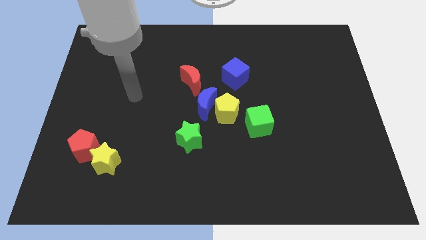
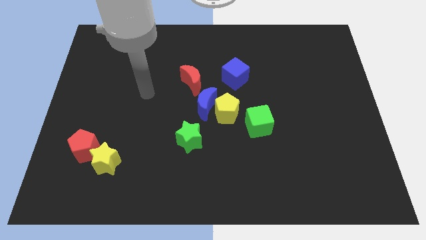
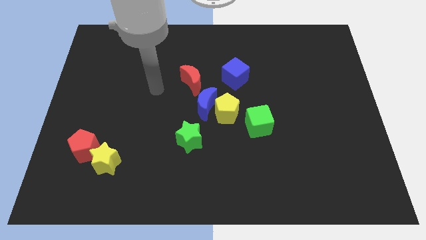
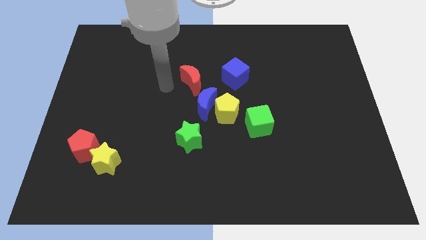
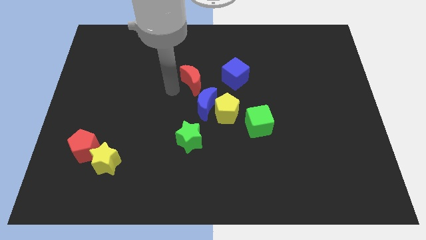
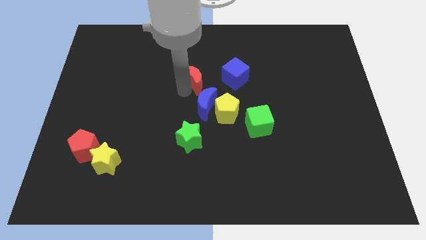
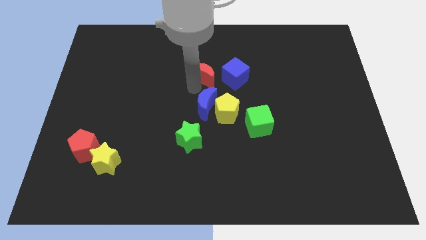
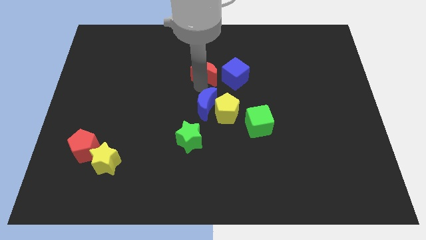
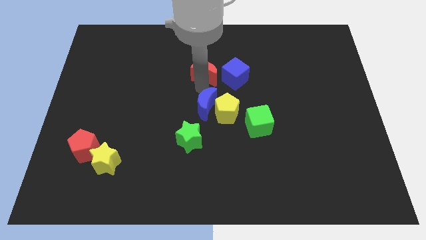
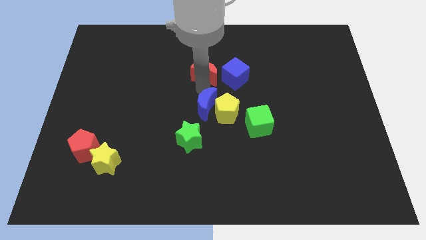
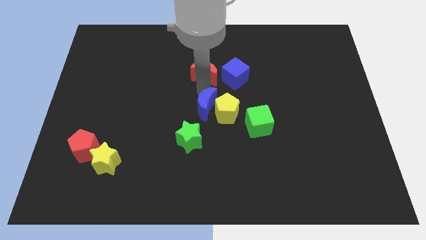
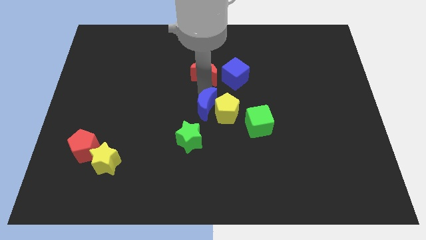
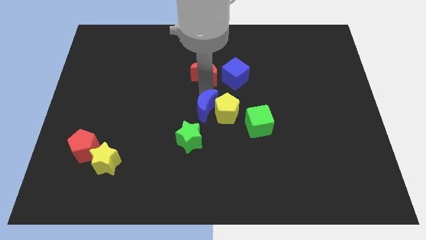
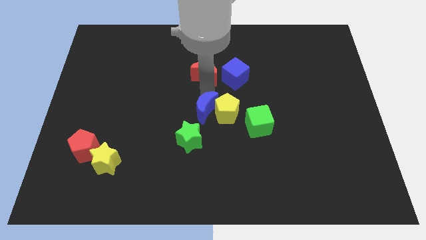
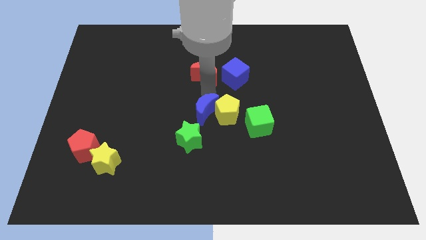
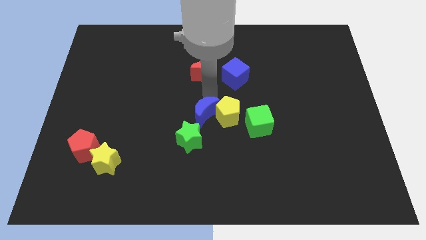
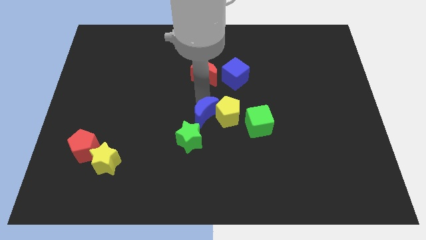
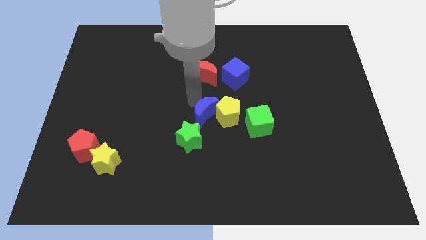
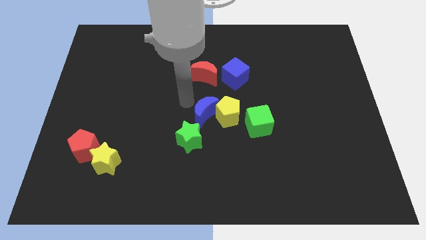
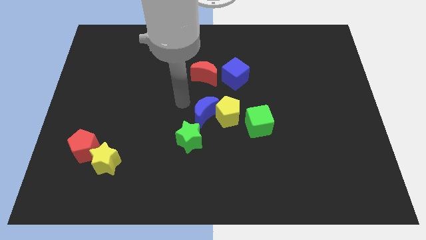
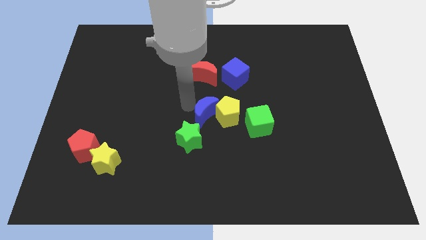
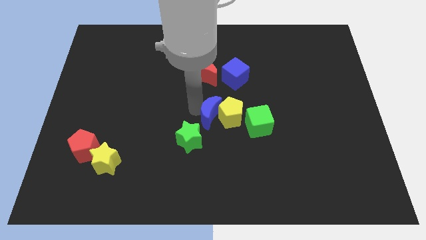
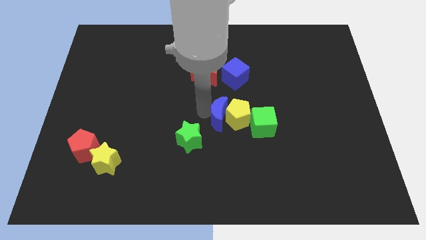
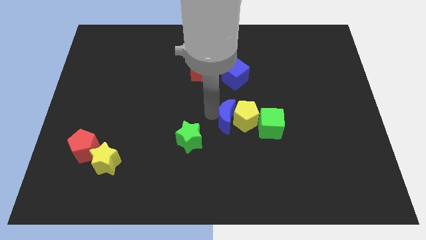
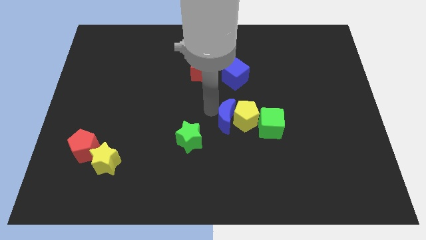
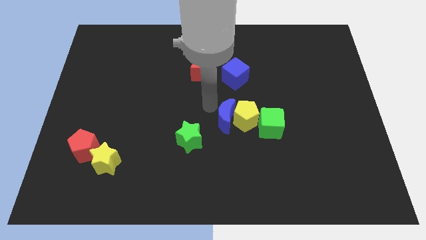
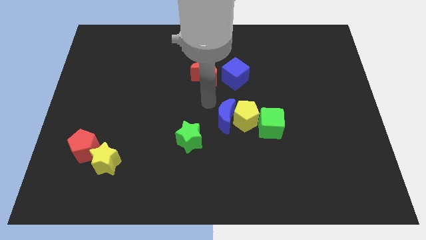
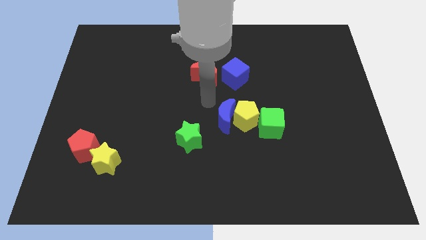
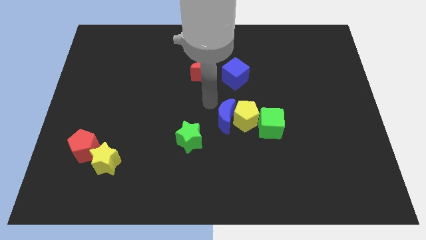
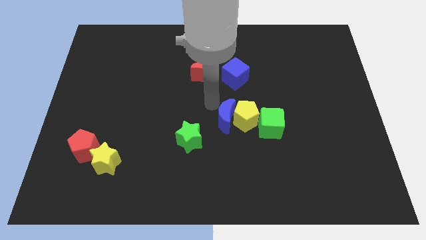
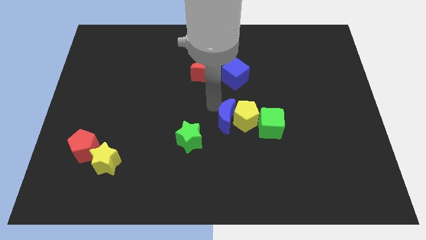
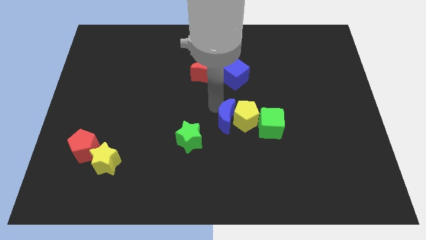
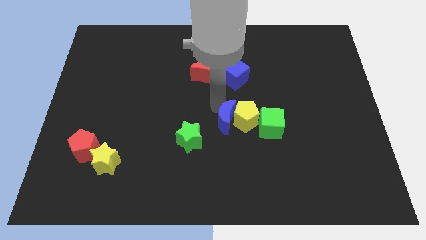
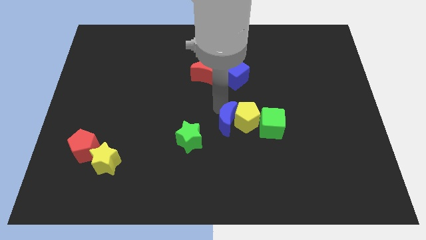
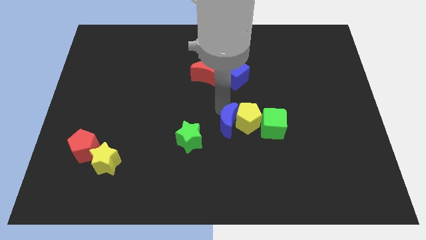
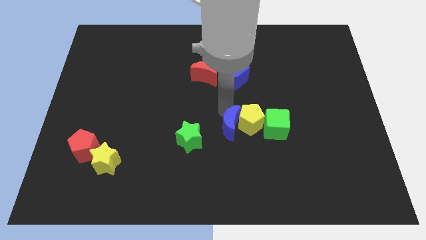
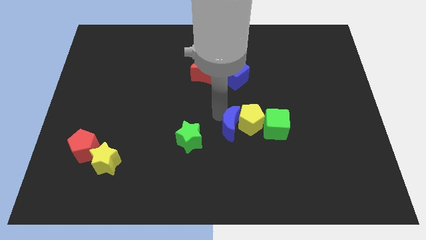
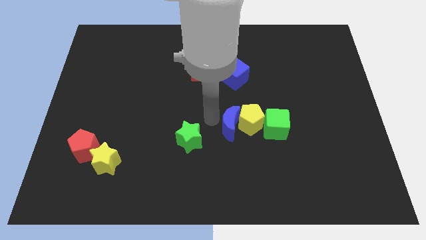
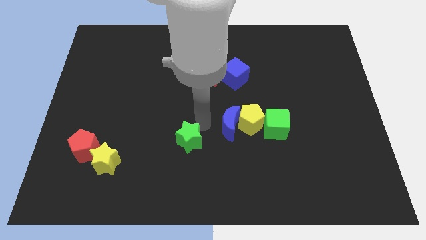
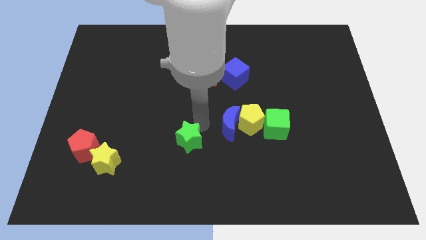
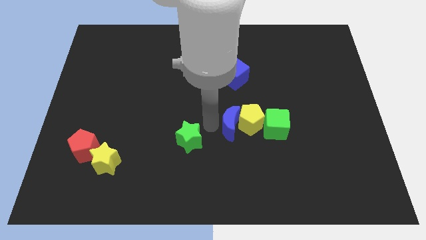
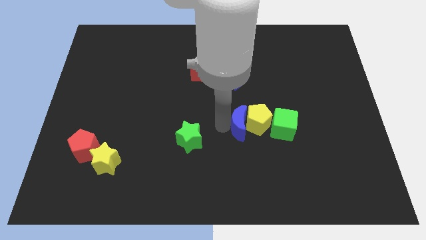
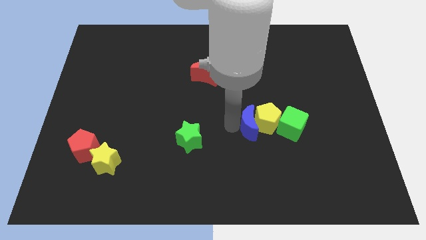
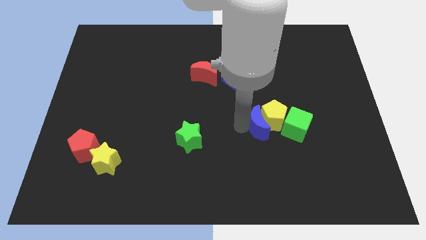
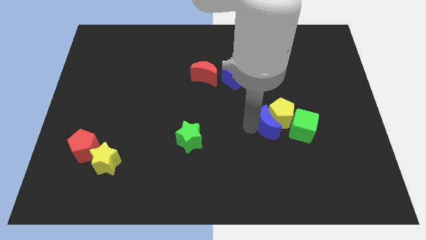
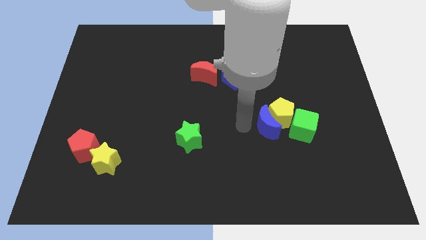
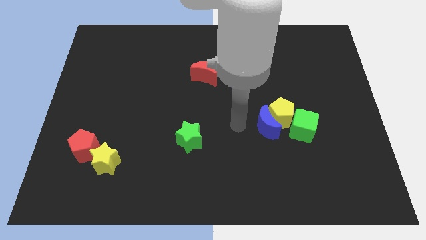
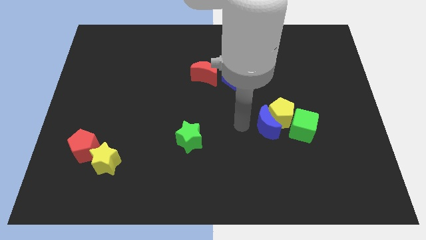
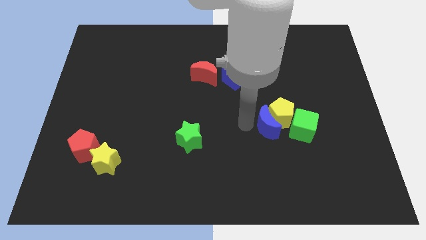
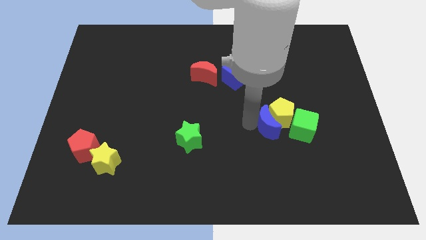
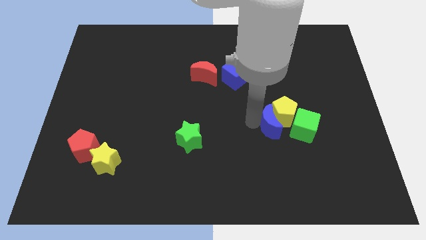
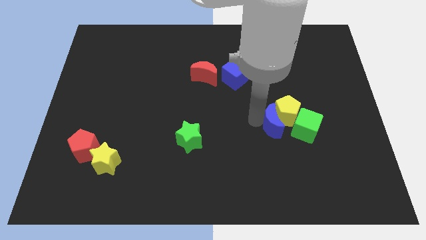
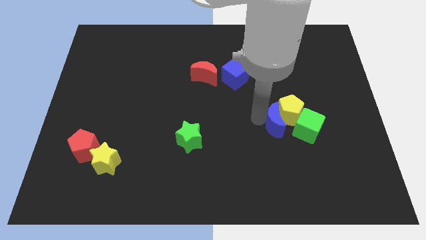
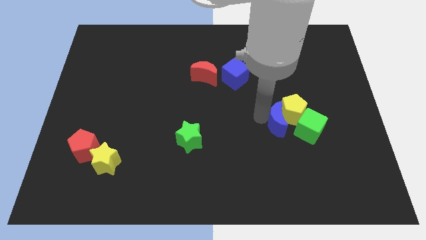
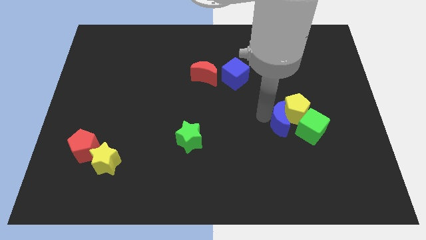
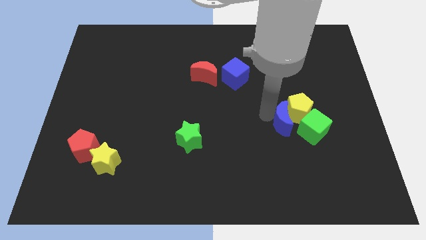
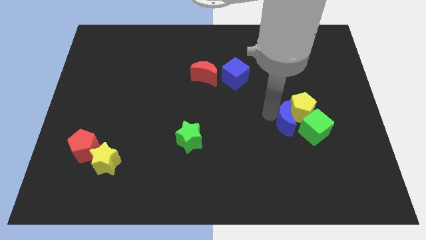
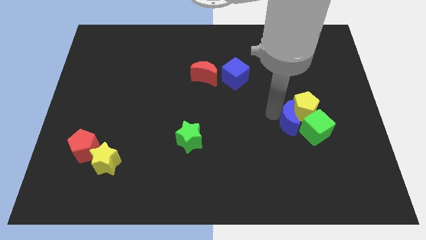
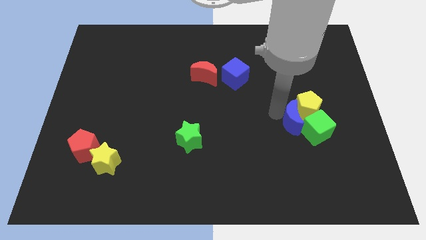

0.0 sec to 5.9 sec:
put the blue moon next to the green cube

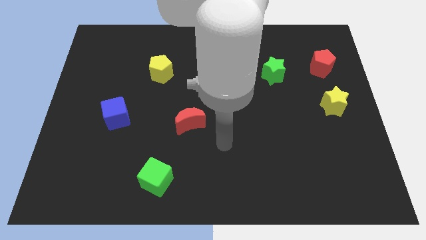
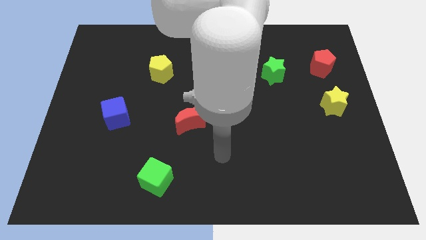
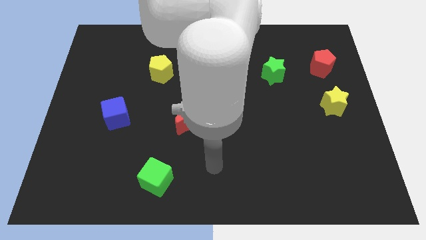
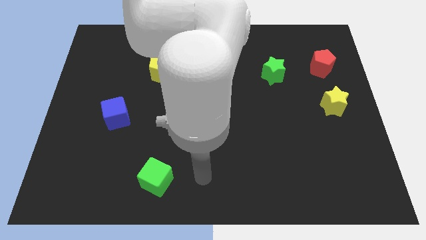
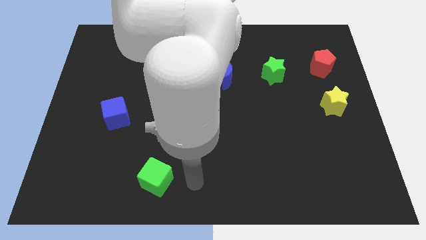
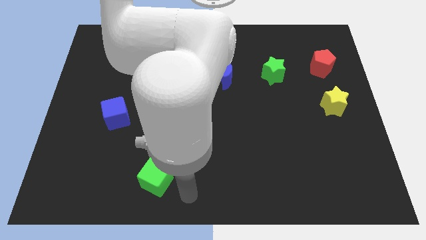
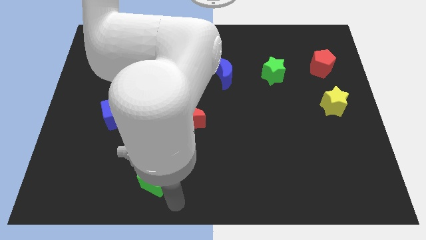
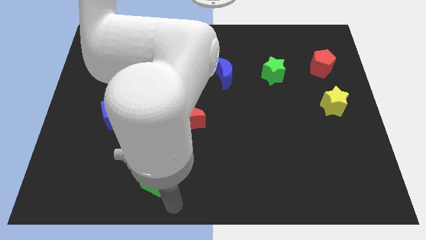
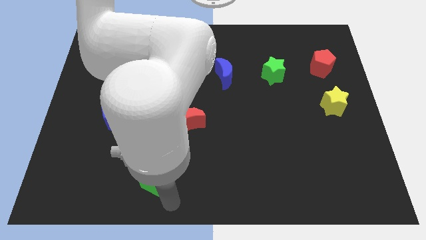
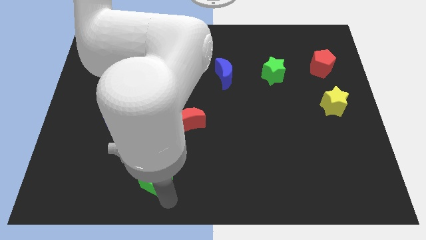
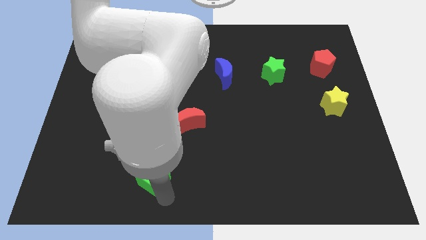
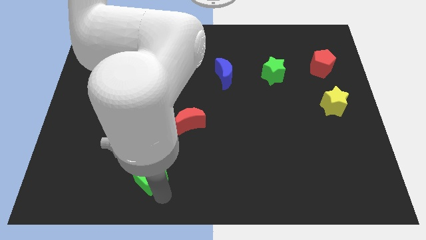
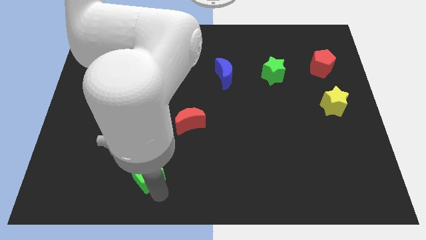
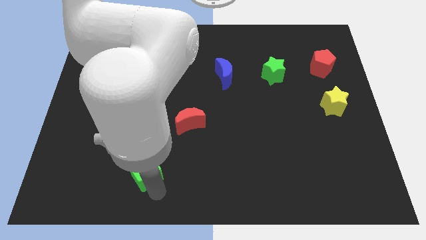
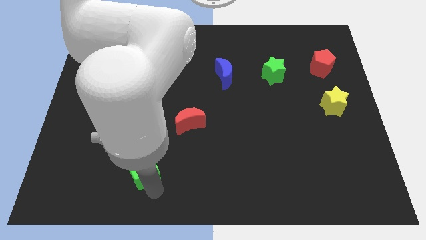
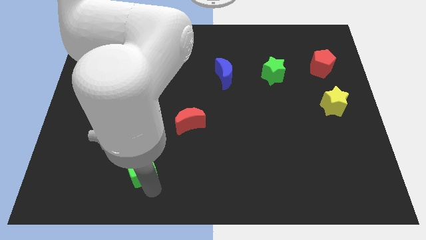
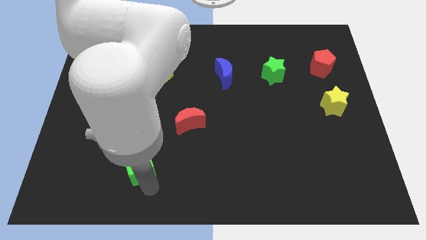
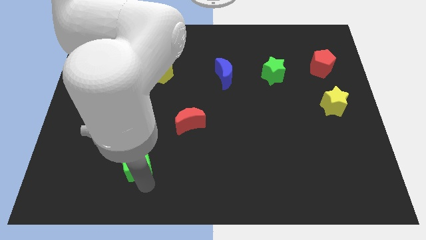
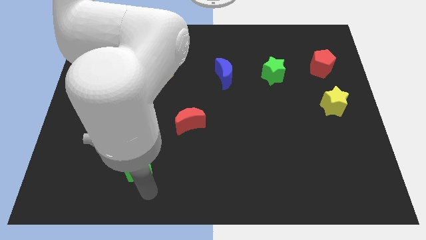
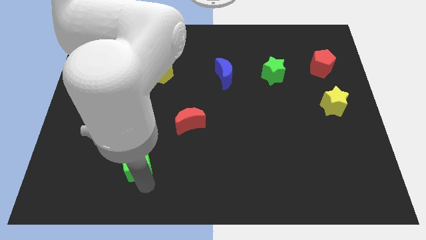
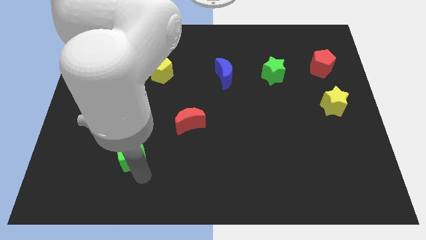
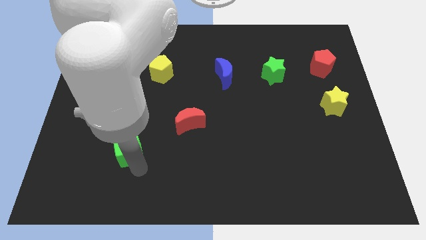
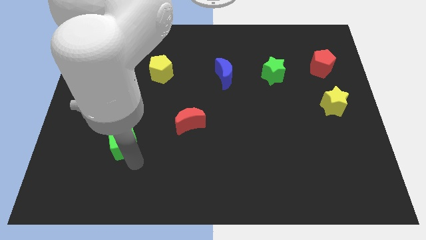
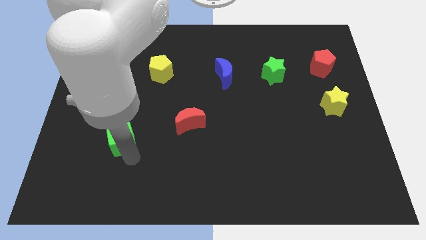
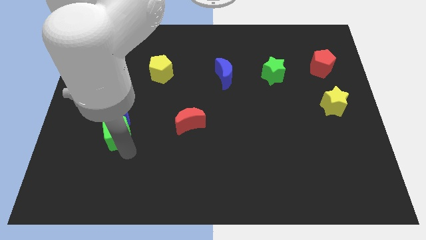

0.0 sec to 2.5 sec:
slide the green cube towards the blue cube
